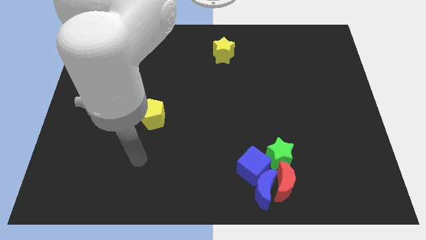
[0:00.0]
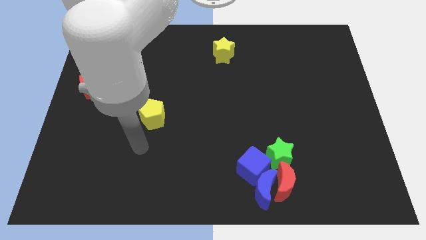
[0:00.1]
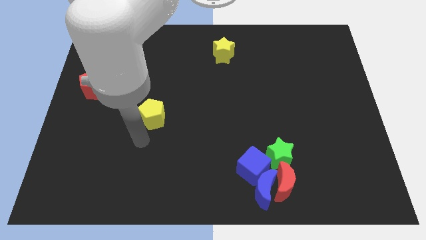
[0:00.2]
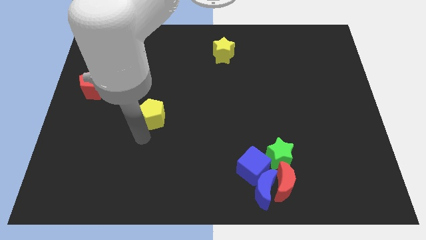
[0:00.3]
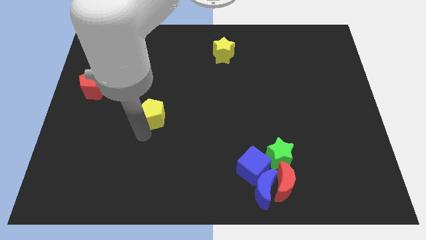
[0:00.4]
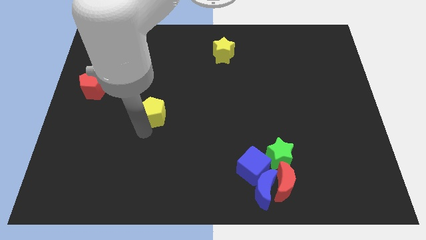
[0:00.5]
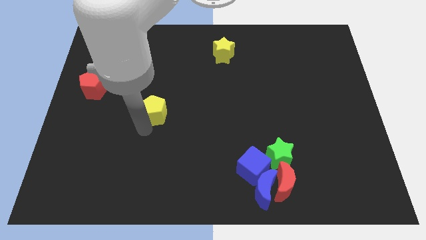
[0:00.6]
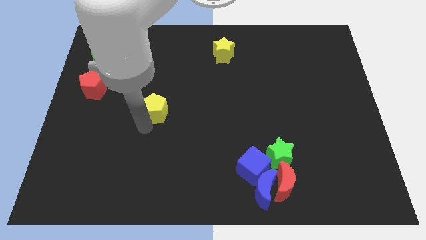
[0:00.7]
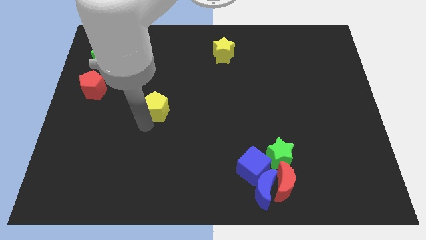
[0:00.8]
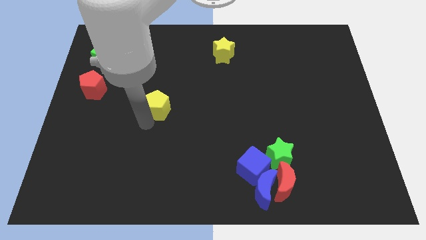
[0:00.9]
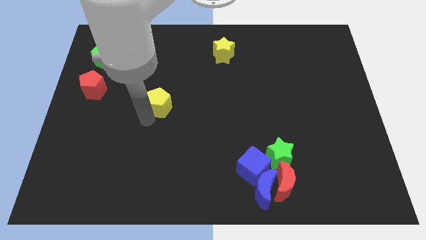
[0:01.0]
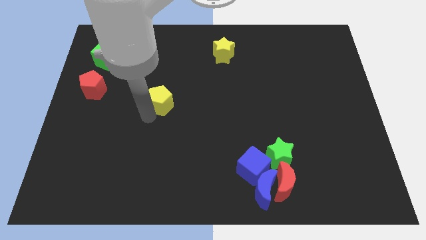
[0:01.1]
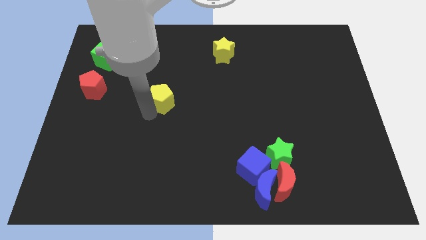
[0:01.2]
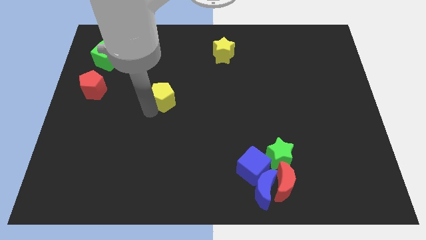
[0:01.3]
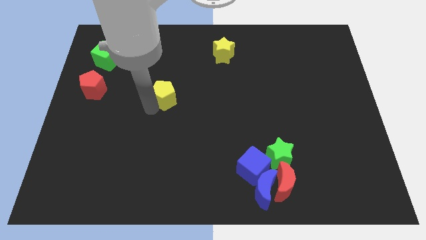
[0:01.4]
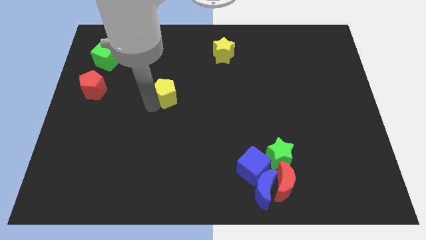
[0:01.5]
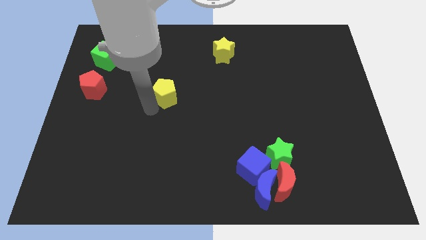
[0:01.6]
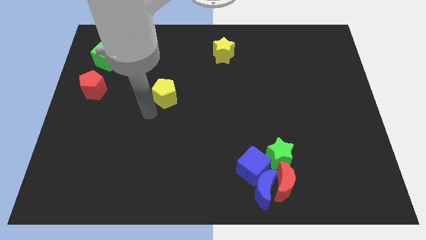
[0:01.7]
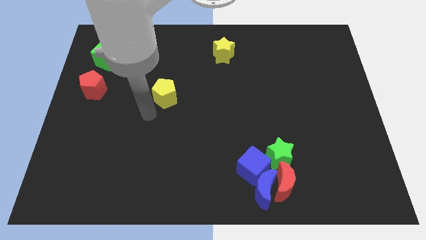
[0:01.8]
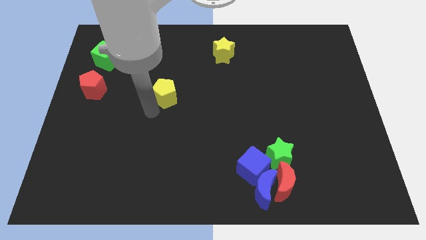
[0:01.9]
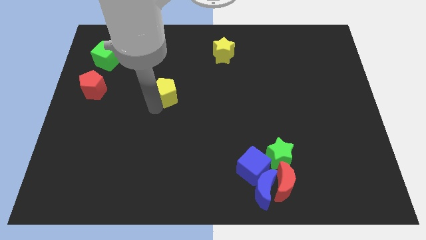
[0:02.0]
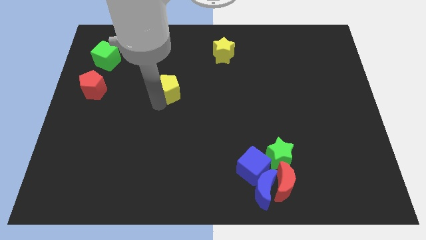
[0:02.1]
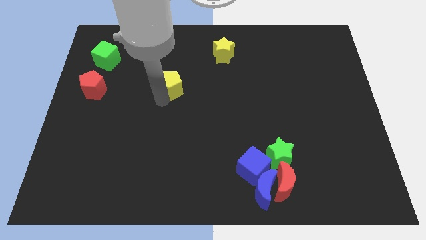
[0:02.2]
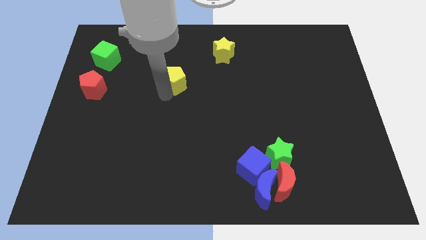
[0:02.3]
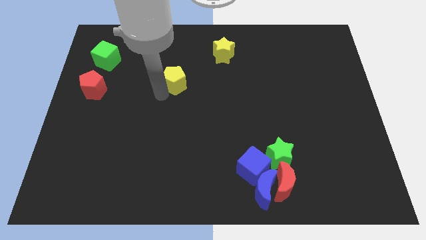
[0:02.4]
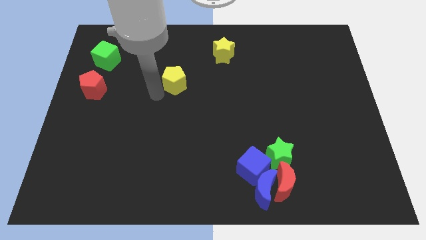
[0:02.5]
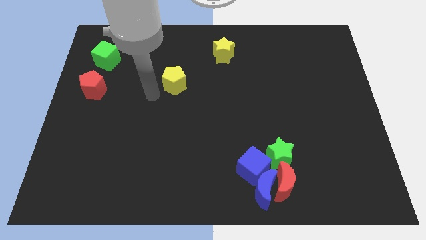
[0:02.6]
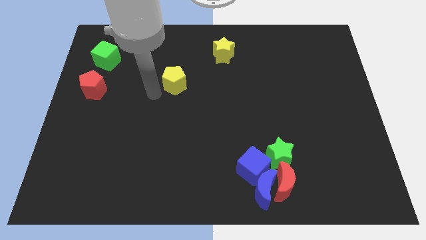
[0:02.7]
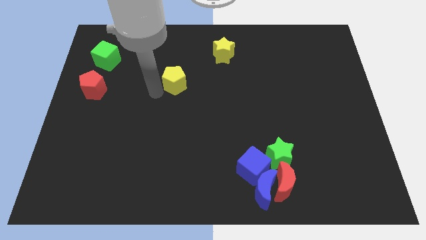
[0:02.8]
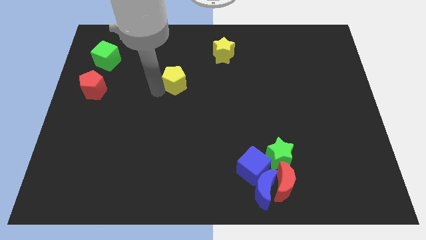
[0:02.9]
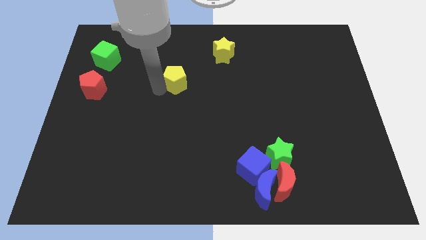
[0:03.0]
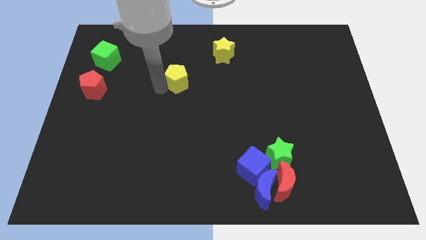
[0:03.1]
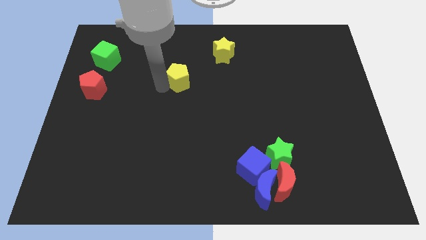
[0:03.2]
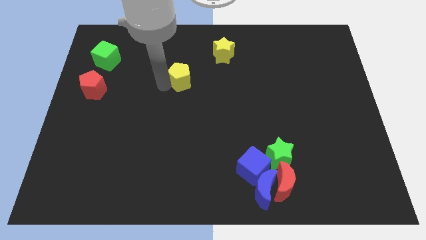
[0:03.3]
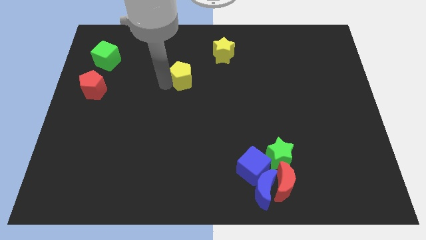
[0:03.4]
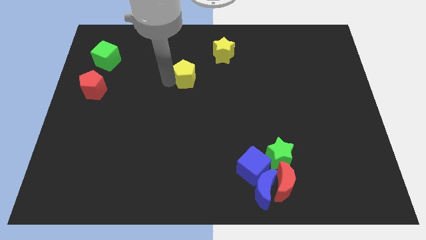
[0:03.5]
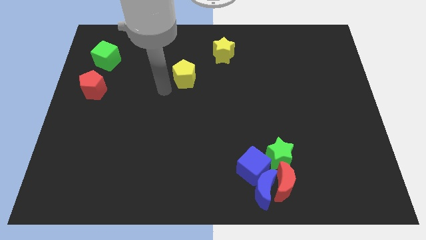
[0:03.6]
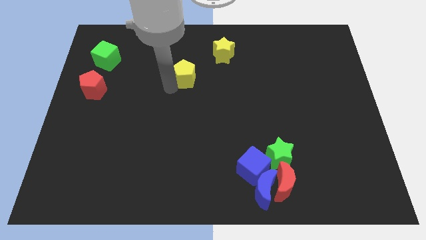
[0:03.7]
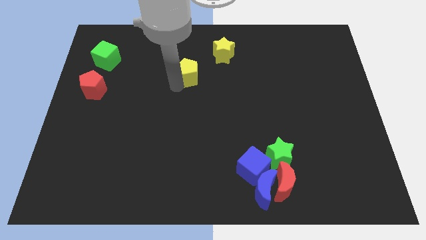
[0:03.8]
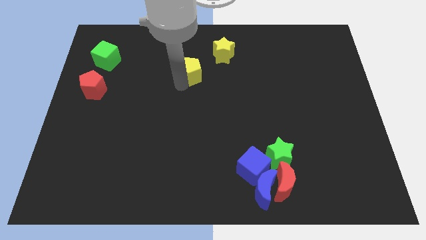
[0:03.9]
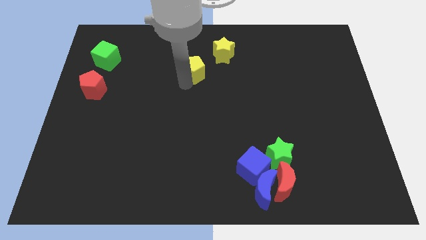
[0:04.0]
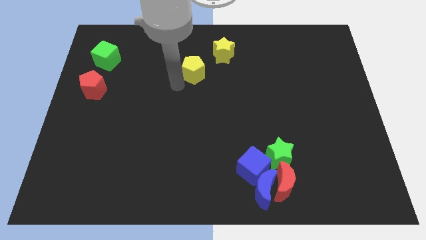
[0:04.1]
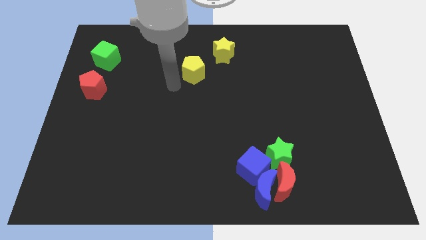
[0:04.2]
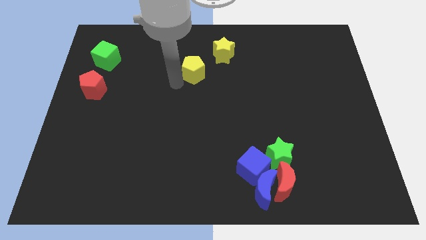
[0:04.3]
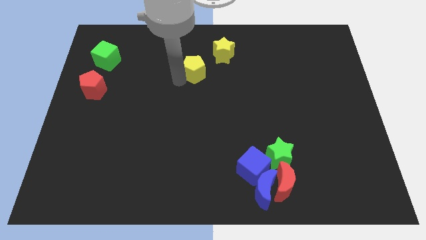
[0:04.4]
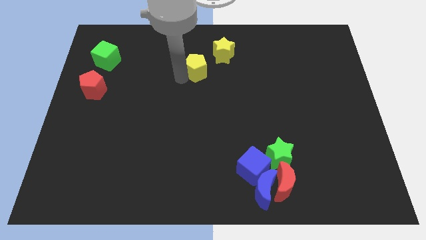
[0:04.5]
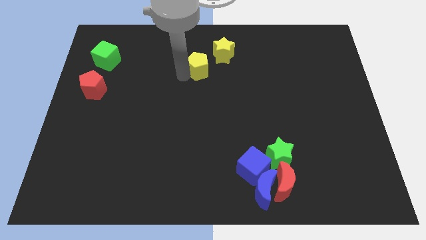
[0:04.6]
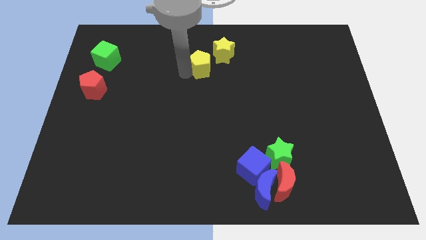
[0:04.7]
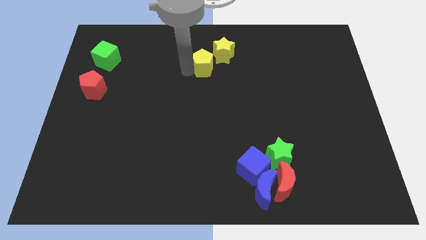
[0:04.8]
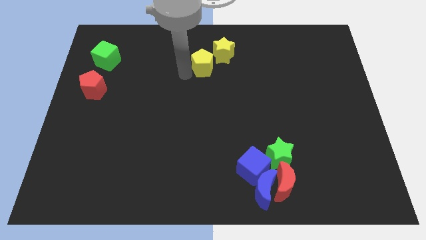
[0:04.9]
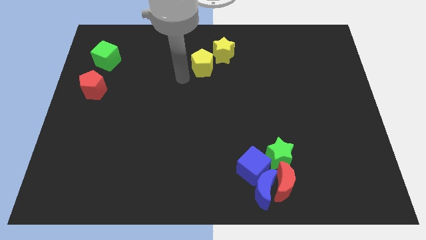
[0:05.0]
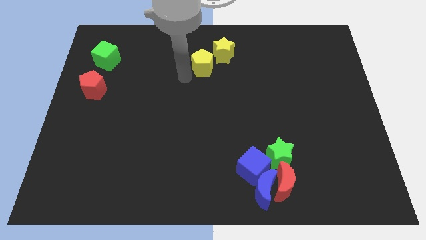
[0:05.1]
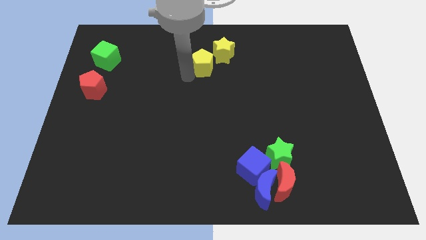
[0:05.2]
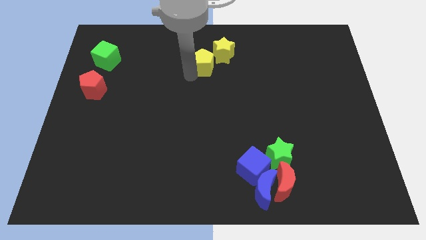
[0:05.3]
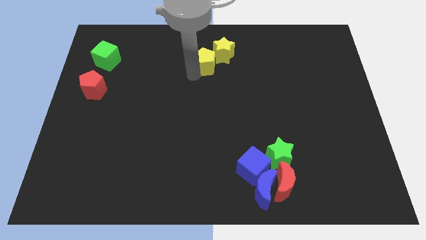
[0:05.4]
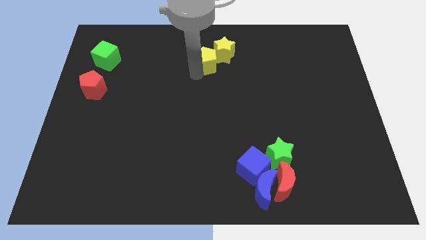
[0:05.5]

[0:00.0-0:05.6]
push the yellow pentagon to the yellow star
